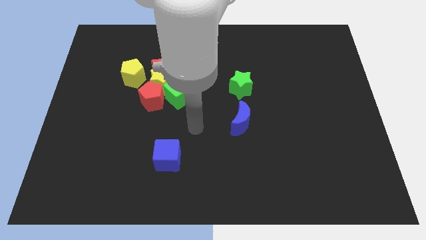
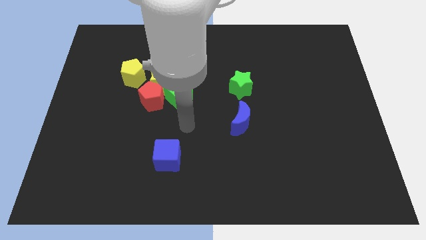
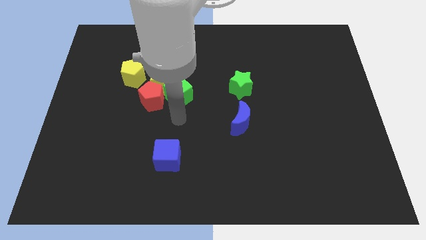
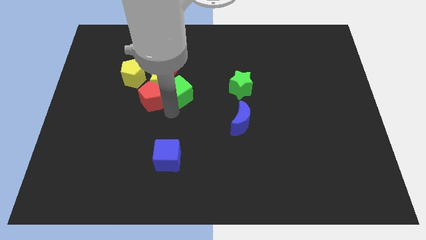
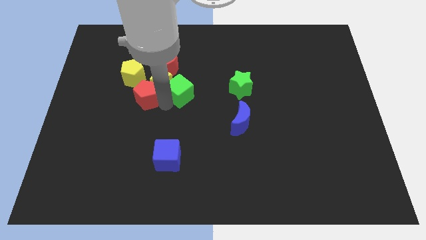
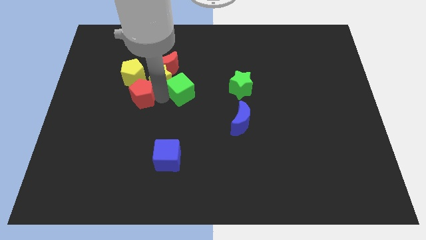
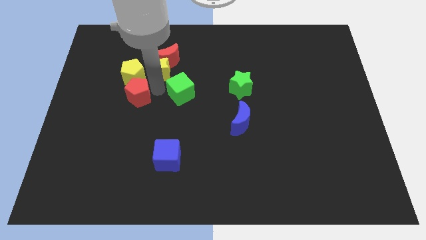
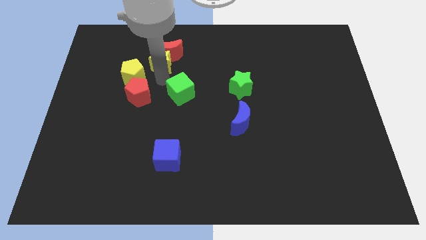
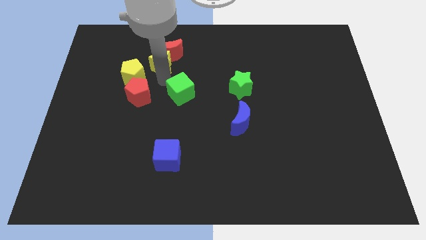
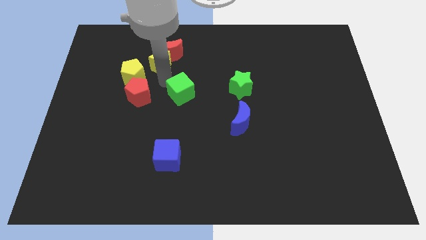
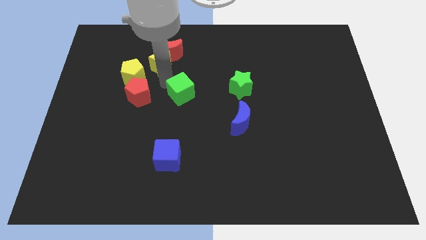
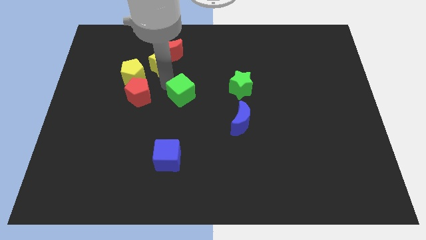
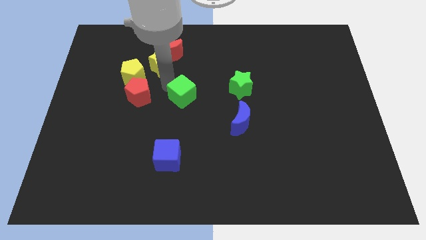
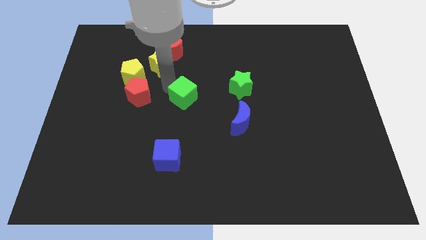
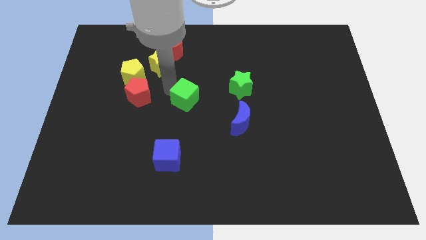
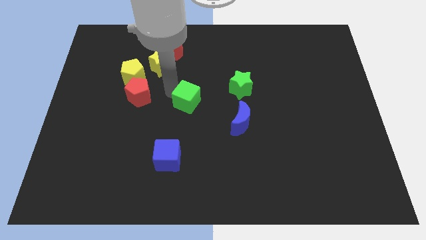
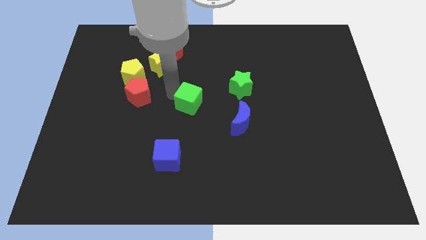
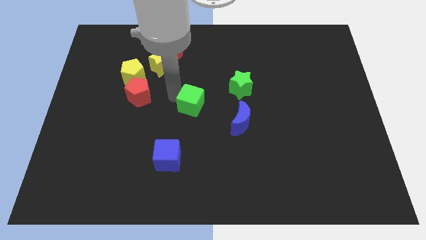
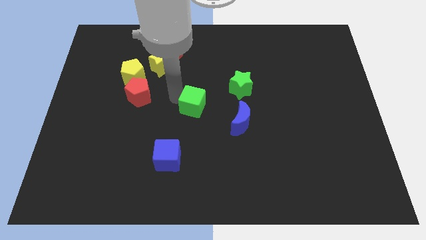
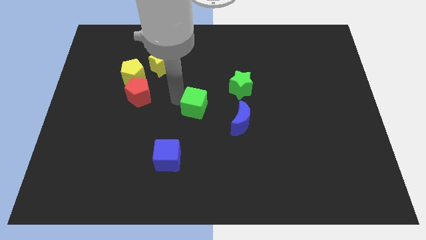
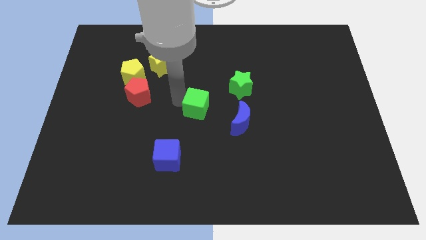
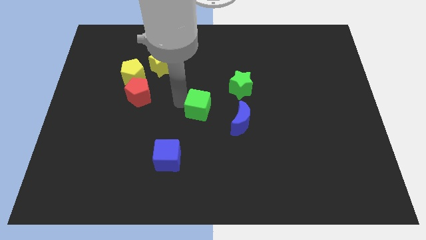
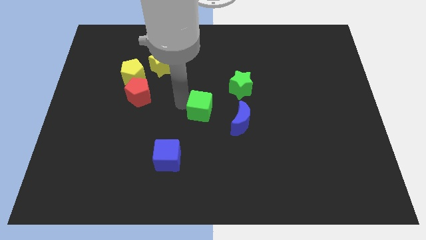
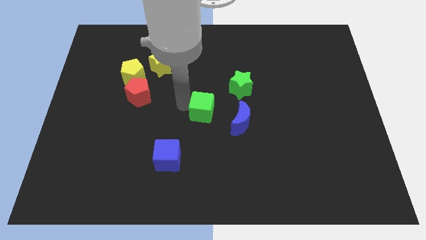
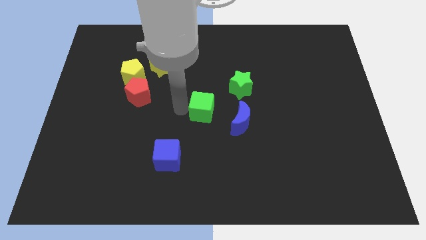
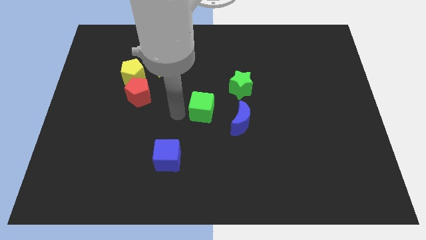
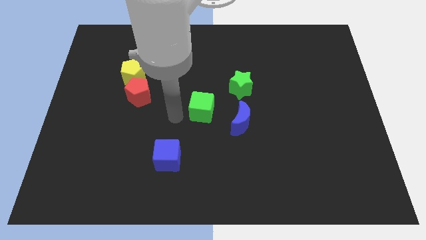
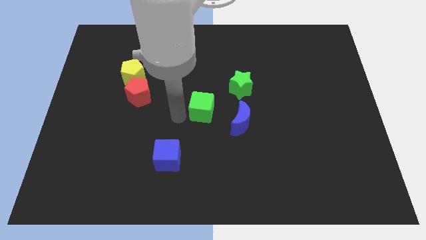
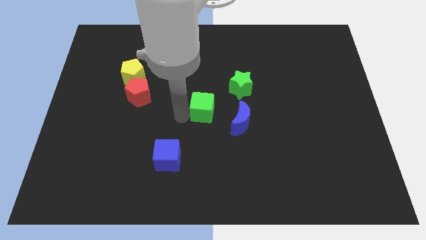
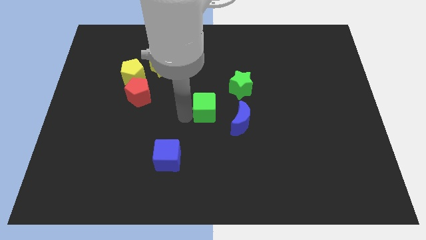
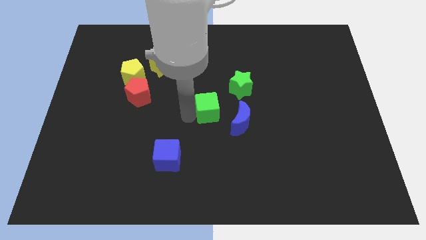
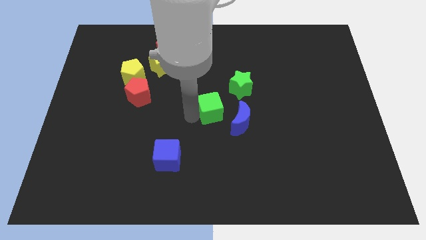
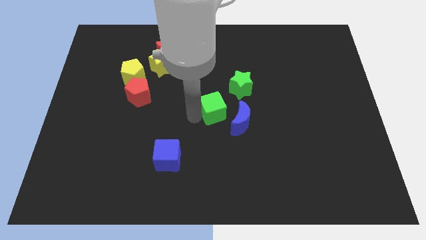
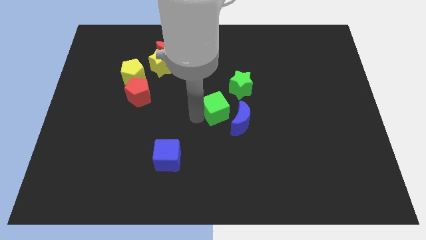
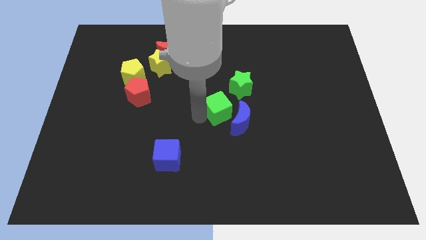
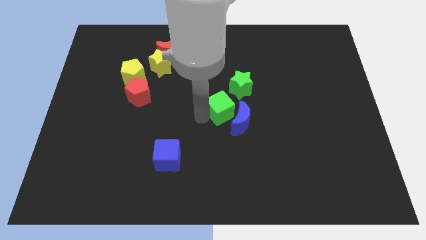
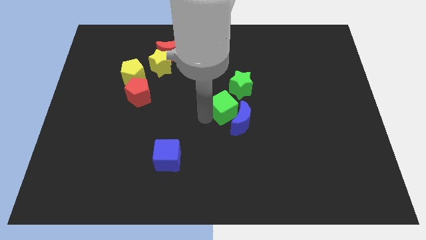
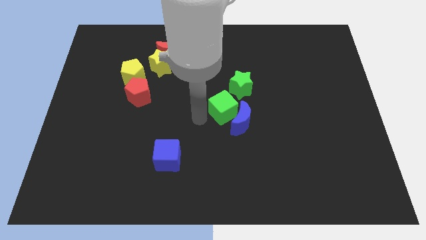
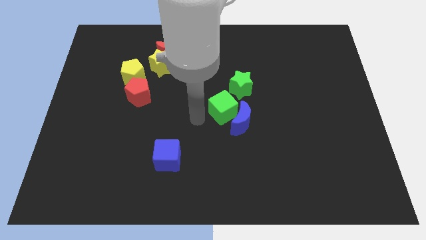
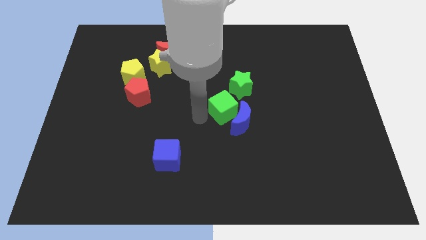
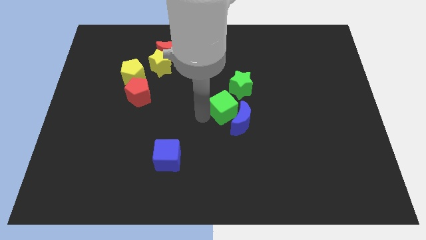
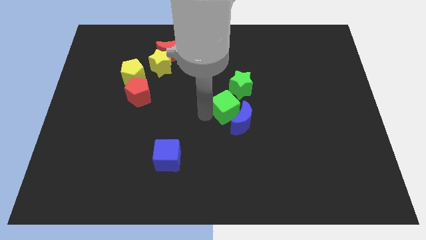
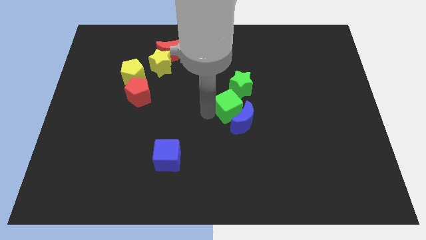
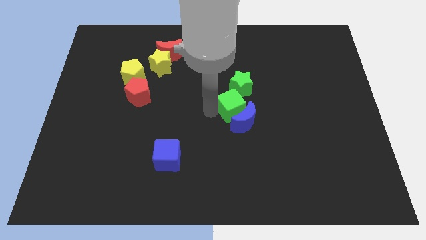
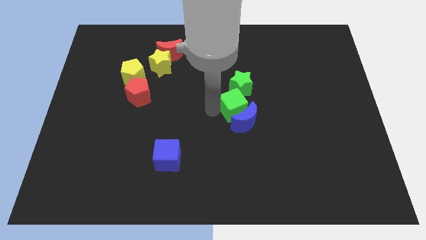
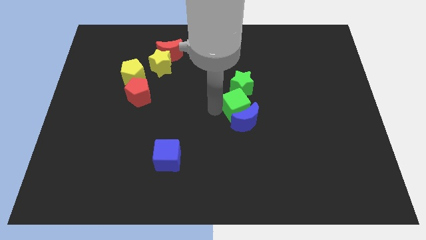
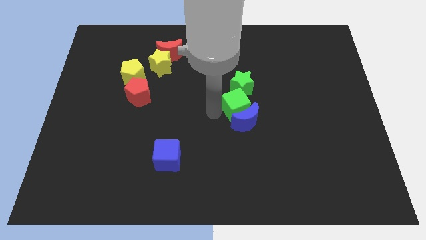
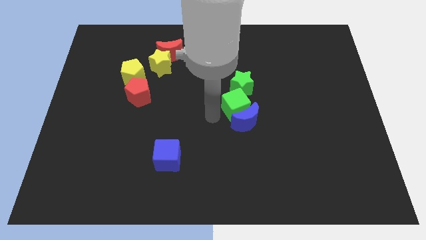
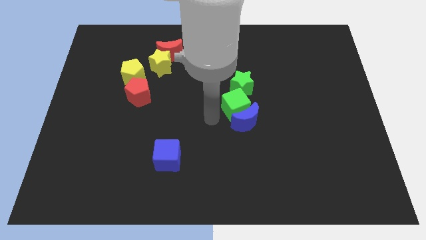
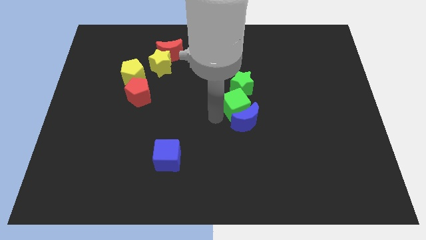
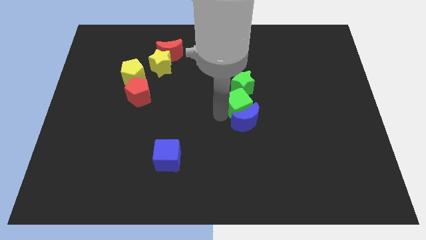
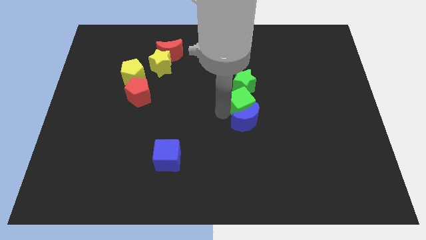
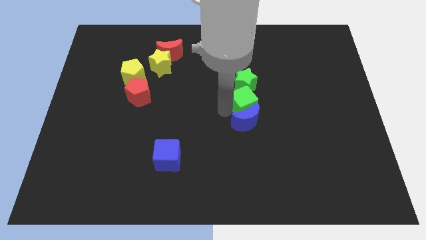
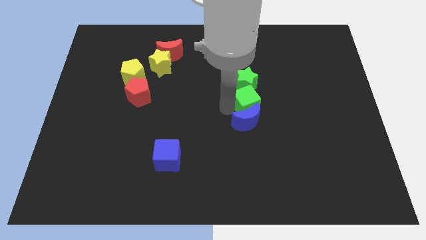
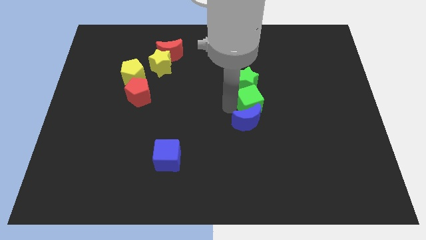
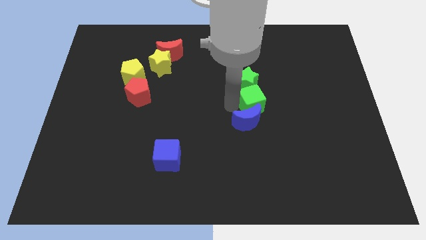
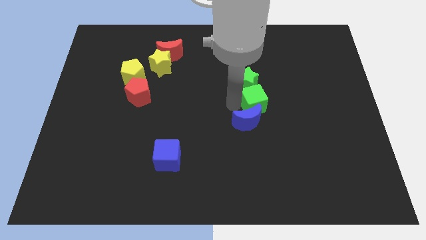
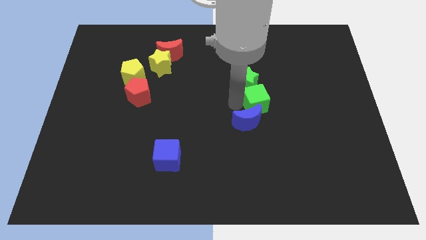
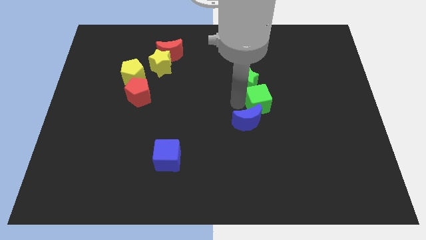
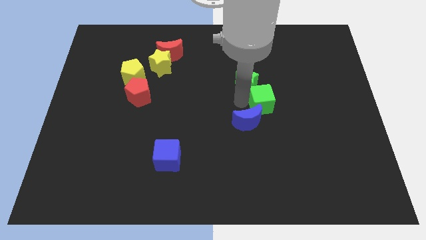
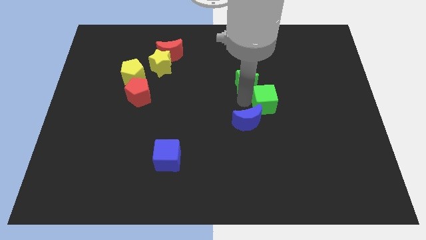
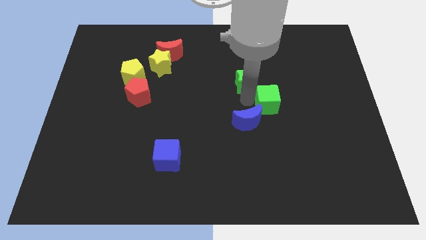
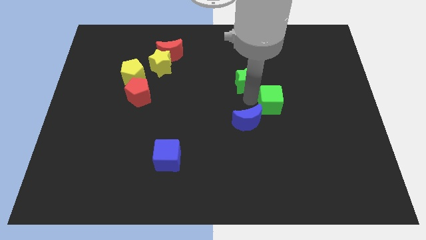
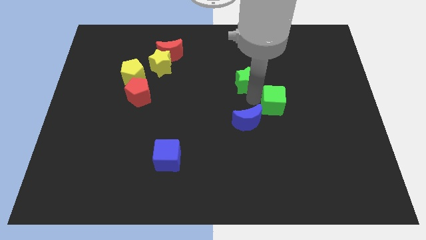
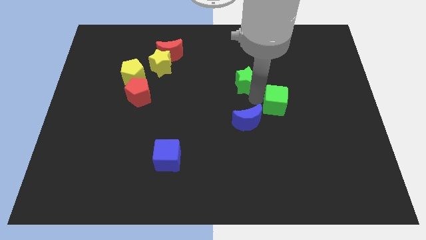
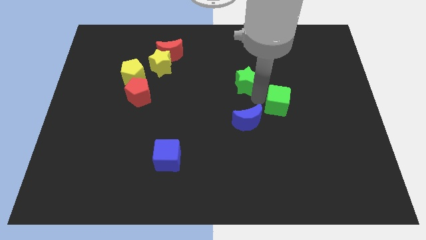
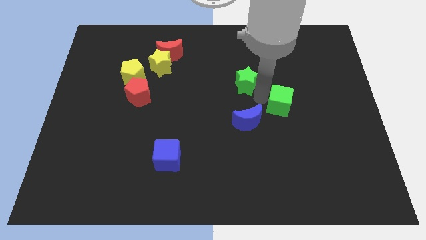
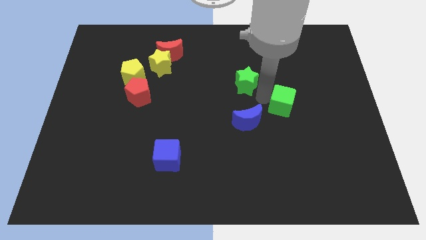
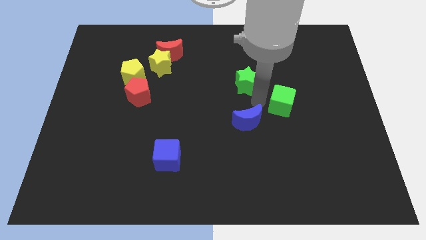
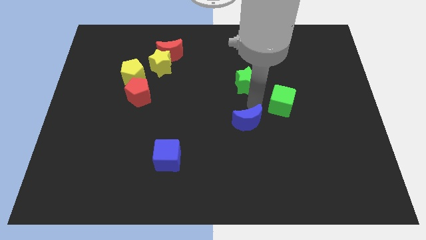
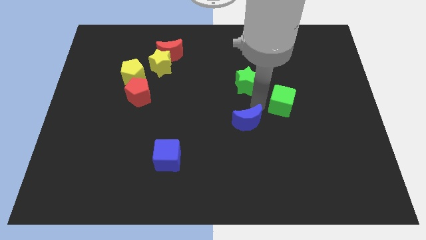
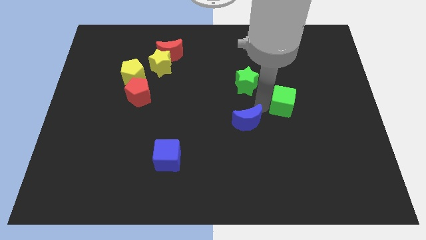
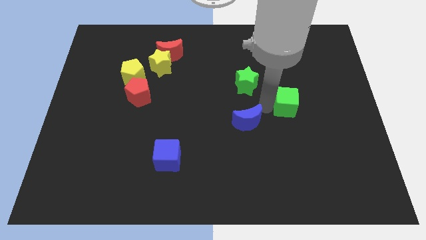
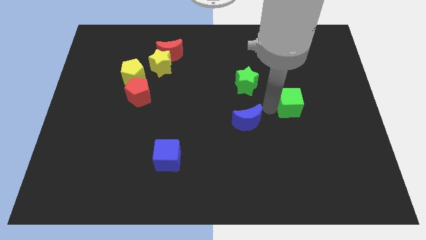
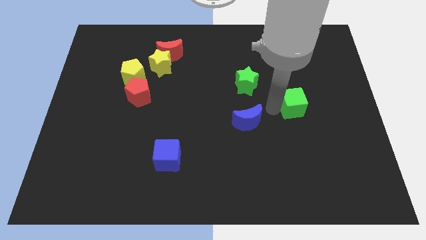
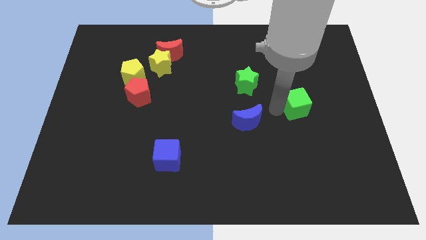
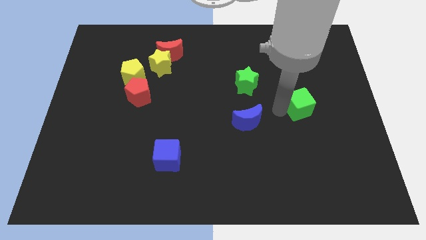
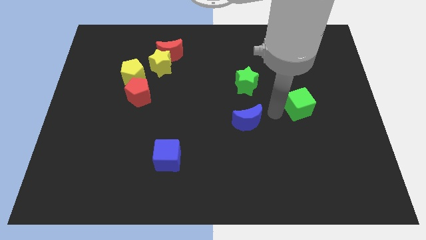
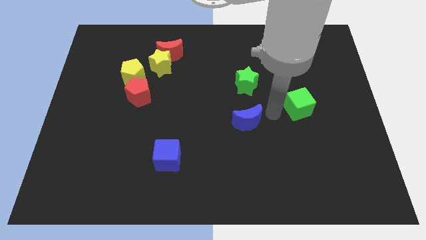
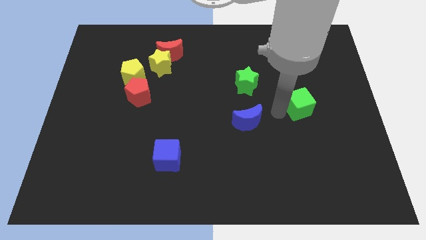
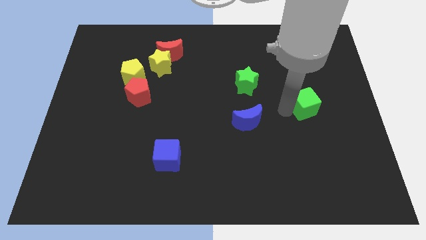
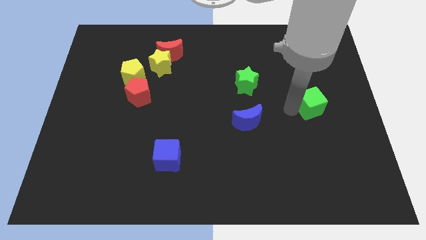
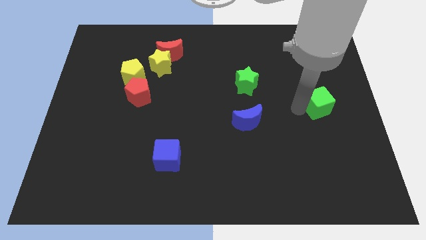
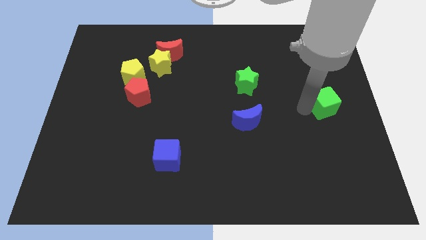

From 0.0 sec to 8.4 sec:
push the green cube to the right side
